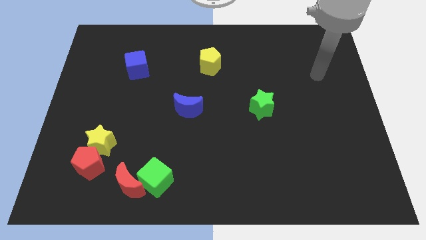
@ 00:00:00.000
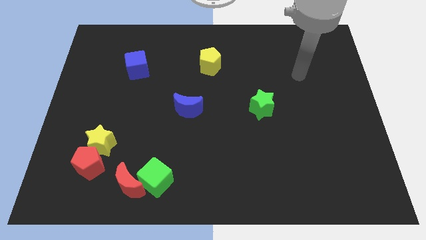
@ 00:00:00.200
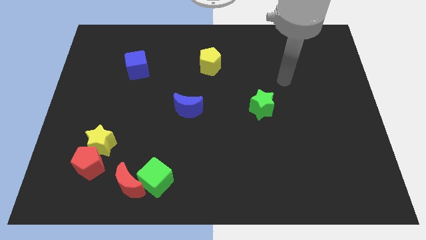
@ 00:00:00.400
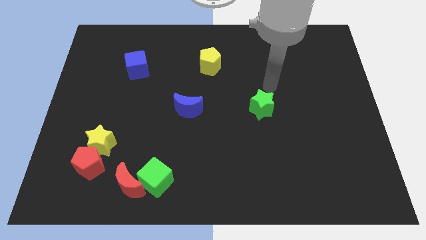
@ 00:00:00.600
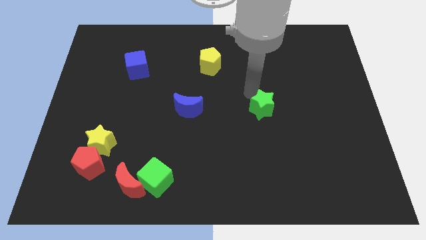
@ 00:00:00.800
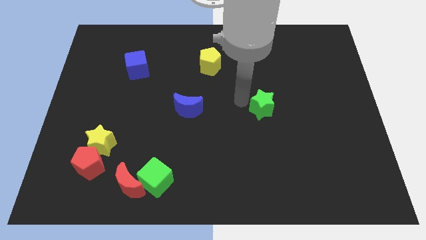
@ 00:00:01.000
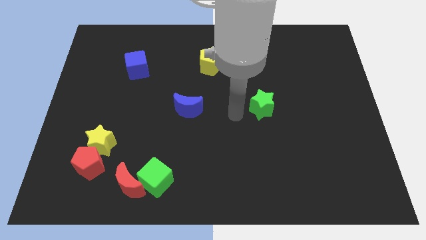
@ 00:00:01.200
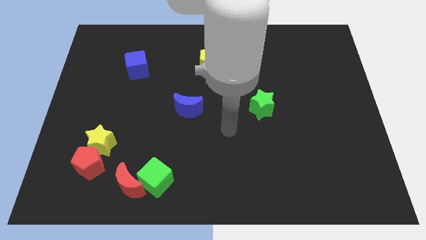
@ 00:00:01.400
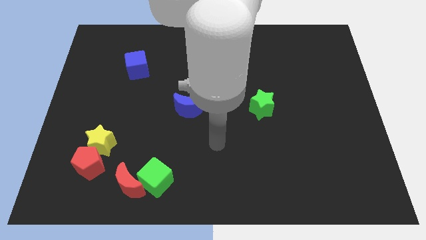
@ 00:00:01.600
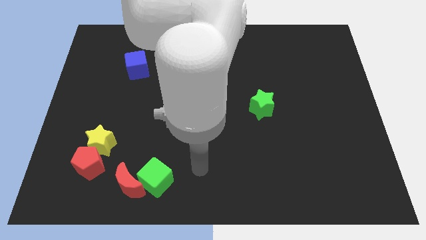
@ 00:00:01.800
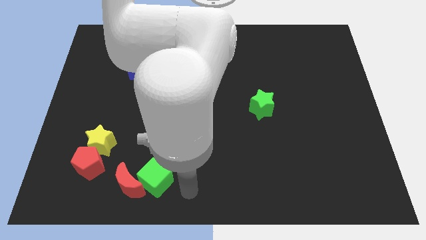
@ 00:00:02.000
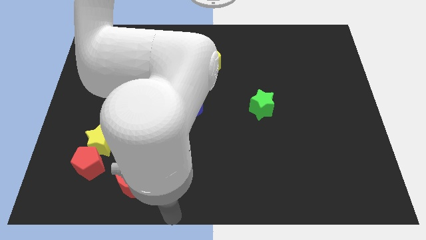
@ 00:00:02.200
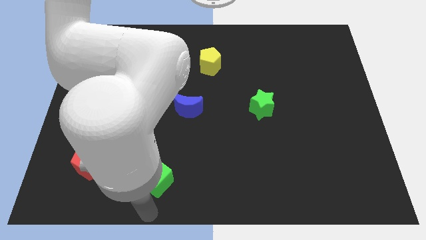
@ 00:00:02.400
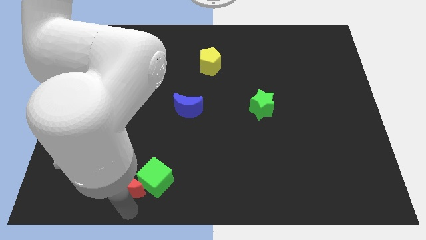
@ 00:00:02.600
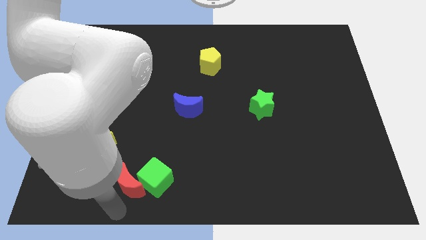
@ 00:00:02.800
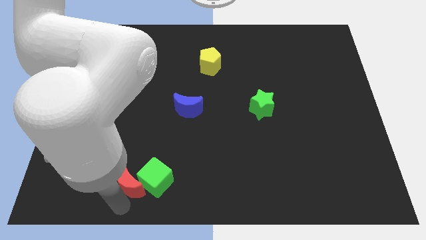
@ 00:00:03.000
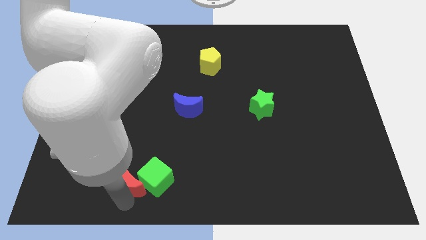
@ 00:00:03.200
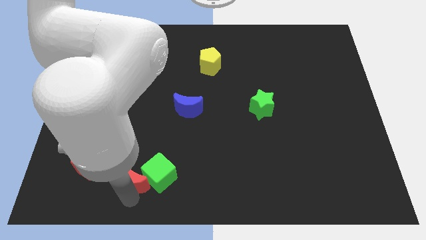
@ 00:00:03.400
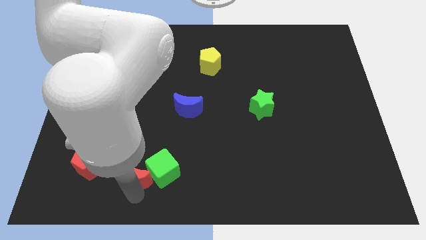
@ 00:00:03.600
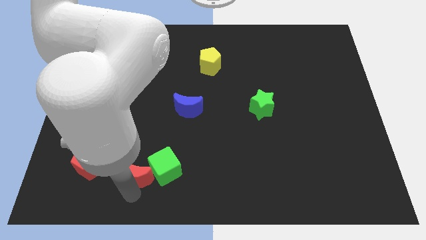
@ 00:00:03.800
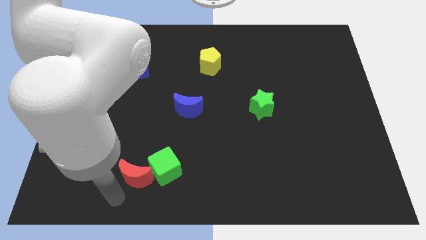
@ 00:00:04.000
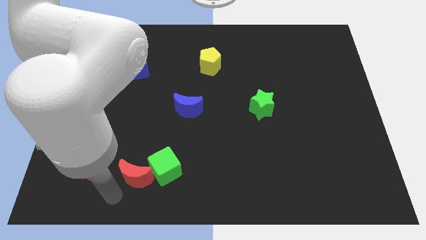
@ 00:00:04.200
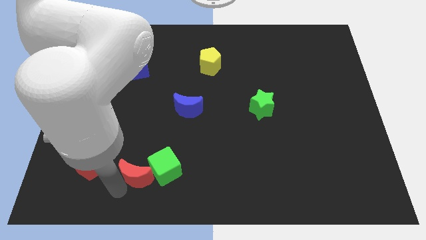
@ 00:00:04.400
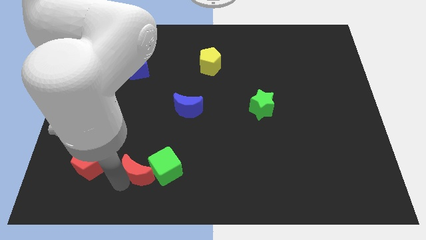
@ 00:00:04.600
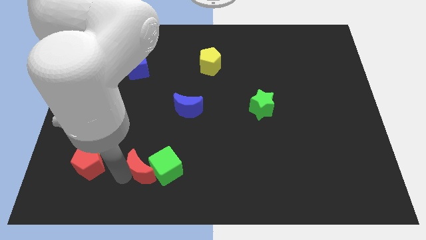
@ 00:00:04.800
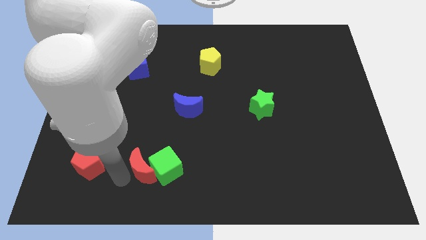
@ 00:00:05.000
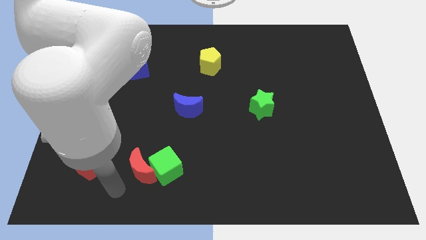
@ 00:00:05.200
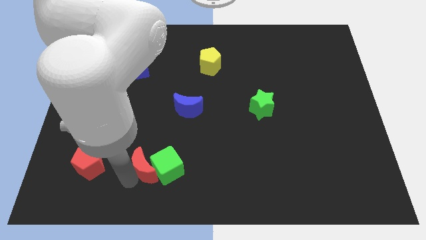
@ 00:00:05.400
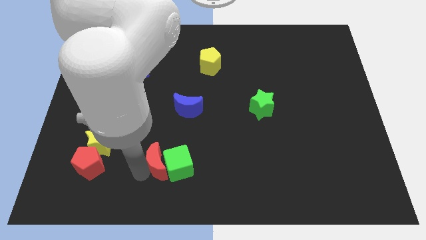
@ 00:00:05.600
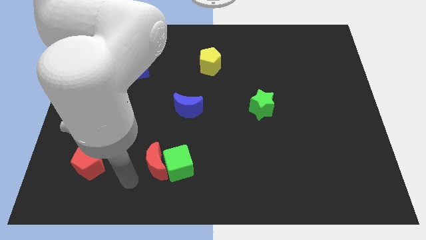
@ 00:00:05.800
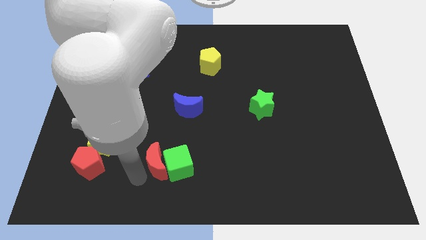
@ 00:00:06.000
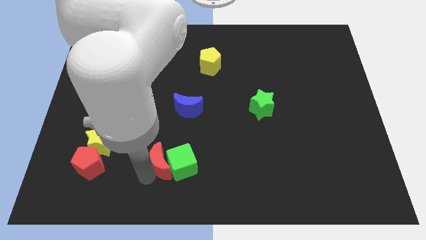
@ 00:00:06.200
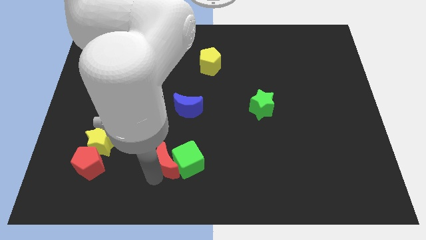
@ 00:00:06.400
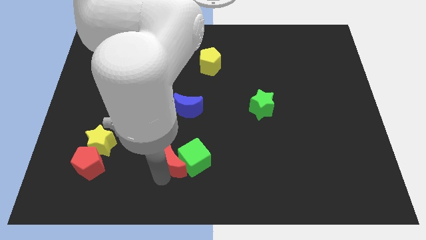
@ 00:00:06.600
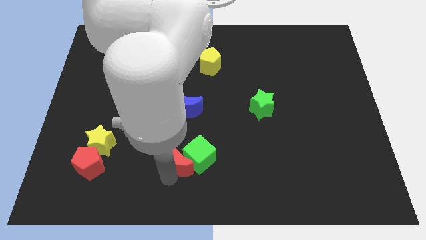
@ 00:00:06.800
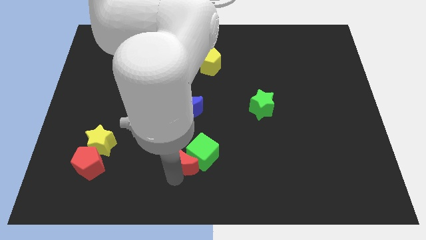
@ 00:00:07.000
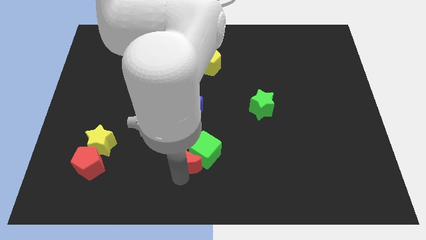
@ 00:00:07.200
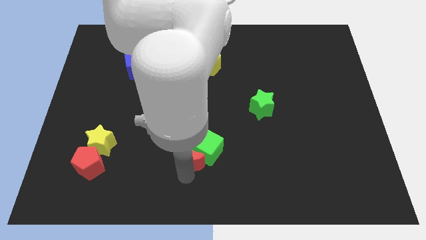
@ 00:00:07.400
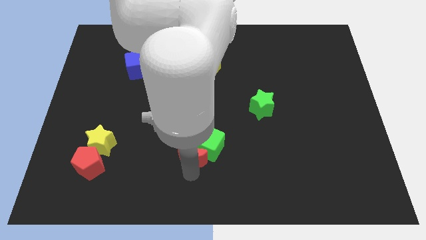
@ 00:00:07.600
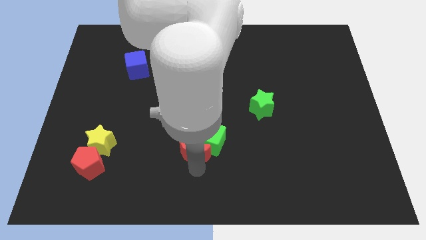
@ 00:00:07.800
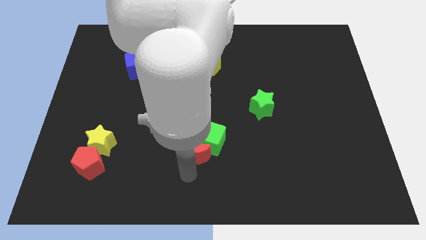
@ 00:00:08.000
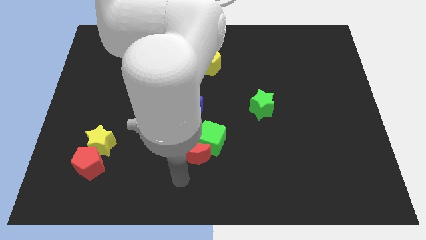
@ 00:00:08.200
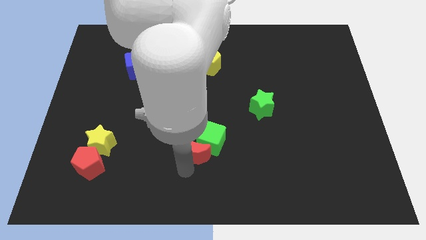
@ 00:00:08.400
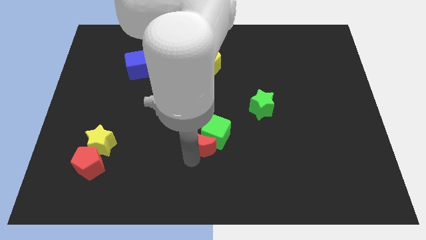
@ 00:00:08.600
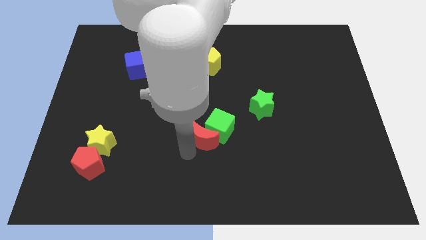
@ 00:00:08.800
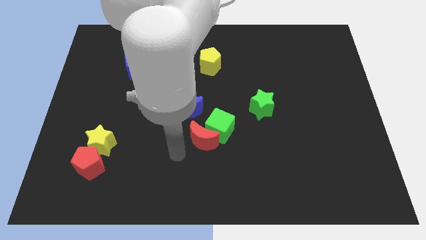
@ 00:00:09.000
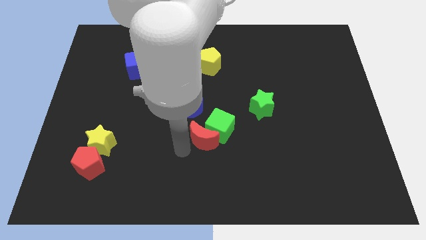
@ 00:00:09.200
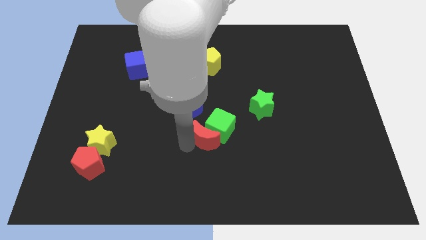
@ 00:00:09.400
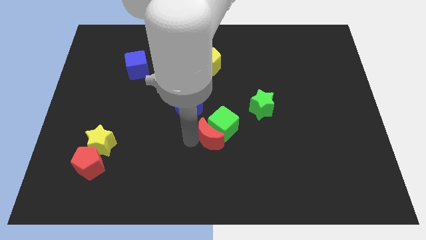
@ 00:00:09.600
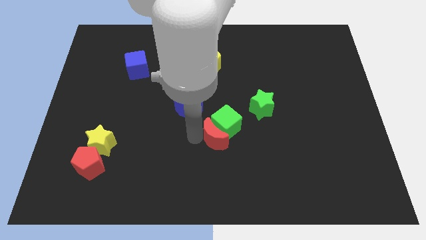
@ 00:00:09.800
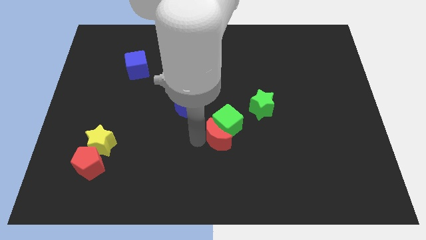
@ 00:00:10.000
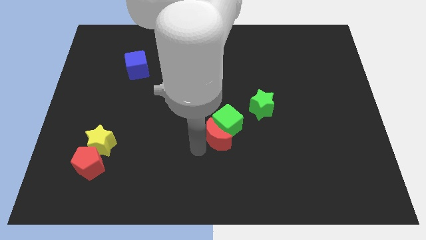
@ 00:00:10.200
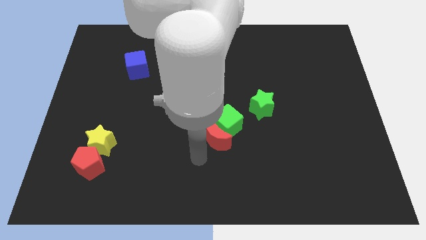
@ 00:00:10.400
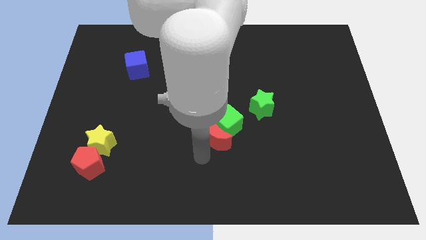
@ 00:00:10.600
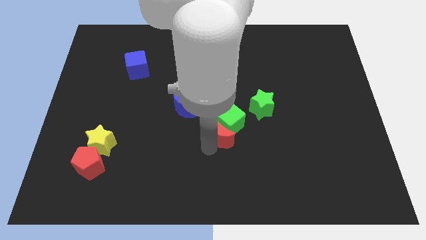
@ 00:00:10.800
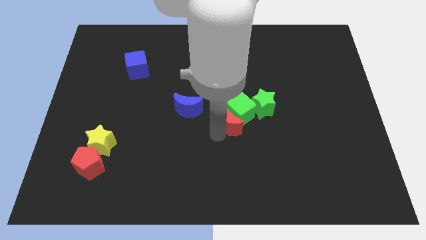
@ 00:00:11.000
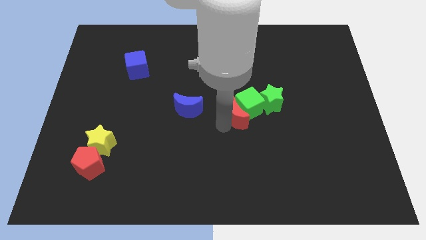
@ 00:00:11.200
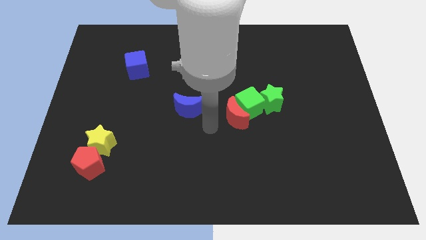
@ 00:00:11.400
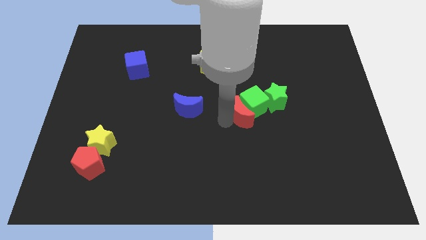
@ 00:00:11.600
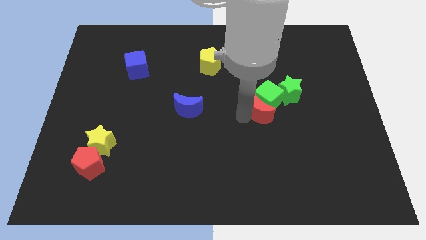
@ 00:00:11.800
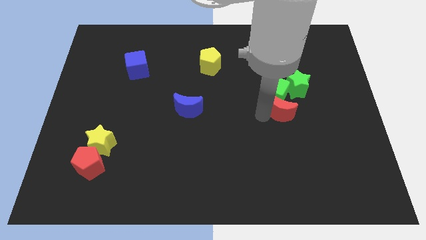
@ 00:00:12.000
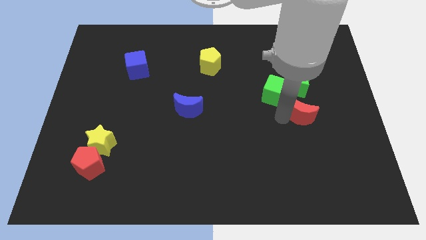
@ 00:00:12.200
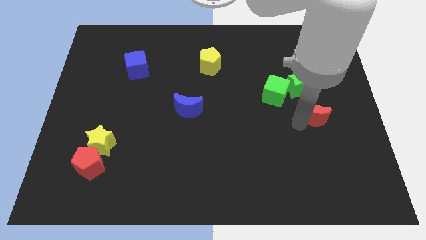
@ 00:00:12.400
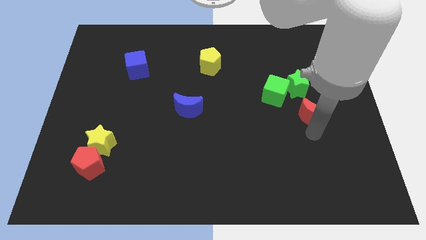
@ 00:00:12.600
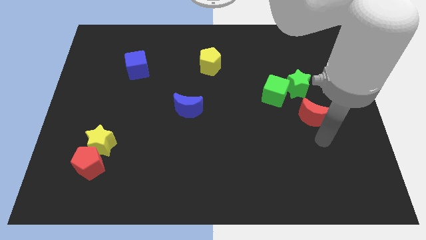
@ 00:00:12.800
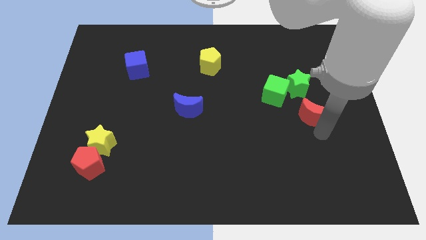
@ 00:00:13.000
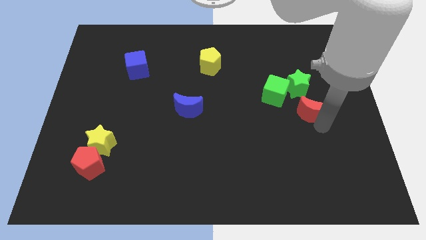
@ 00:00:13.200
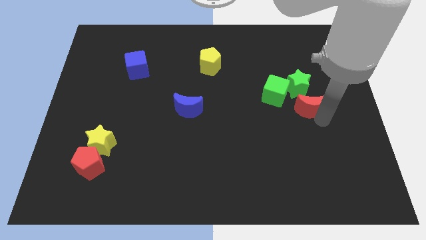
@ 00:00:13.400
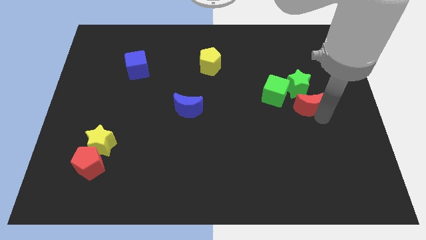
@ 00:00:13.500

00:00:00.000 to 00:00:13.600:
move the red moon next to the green star

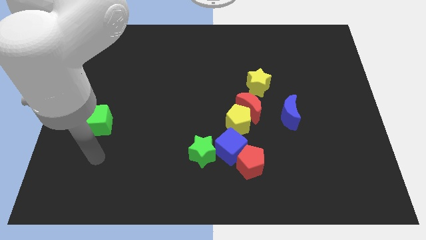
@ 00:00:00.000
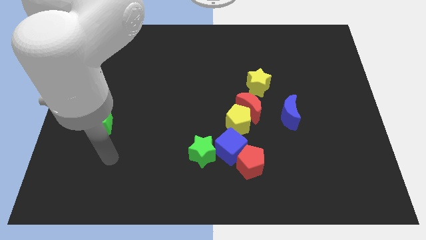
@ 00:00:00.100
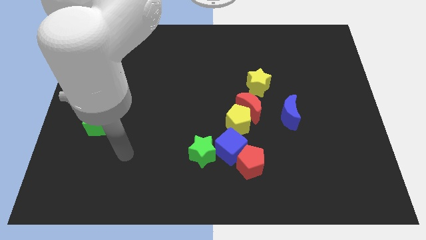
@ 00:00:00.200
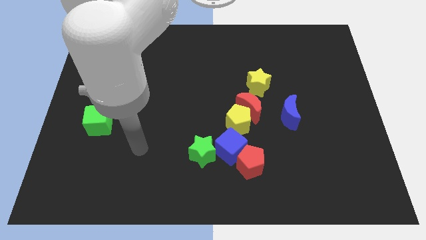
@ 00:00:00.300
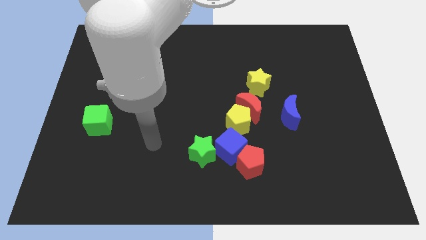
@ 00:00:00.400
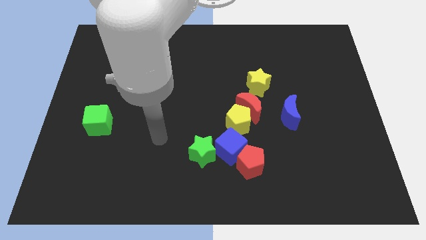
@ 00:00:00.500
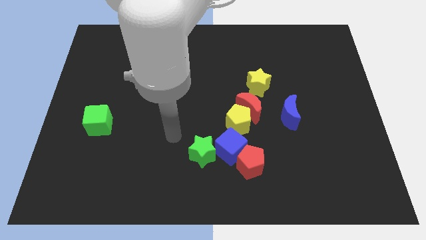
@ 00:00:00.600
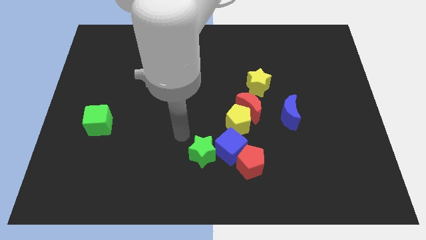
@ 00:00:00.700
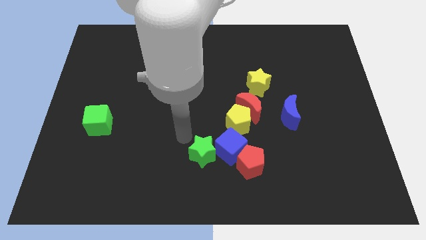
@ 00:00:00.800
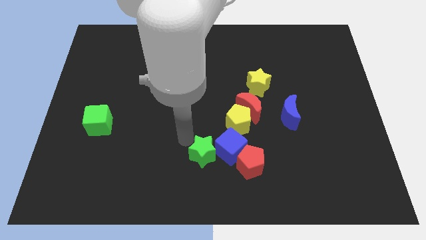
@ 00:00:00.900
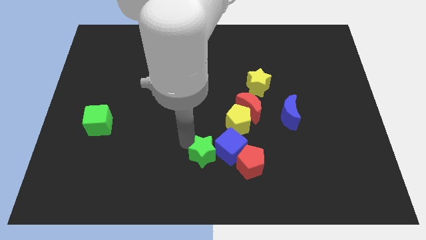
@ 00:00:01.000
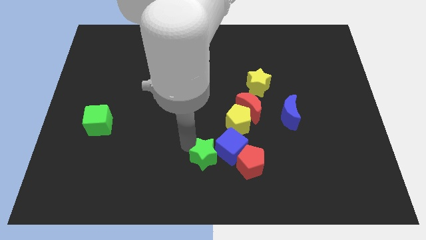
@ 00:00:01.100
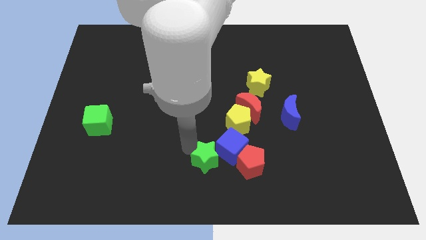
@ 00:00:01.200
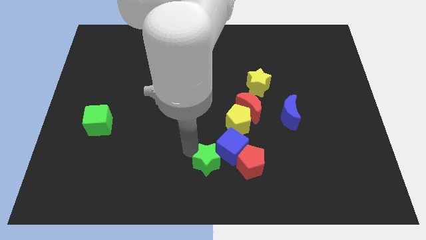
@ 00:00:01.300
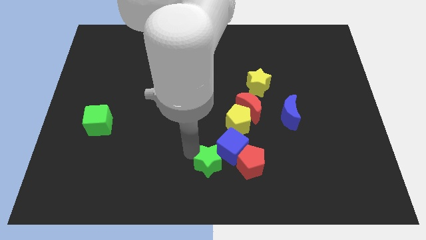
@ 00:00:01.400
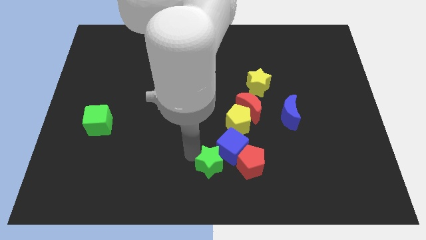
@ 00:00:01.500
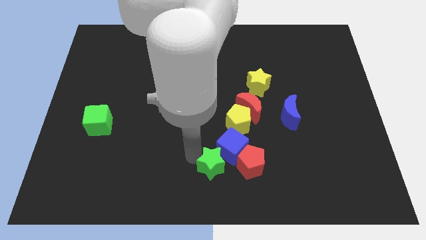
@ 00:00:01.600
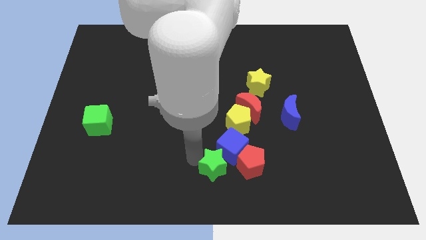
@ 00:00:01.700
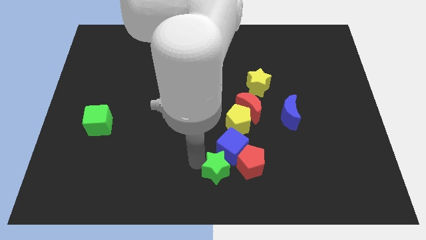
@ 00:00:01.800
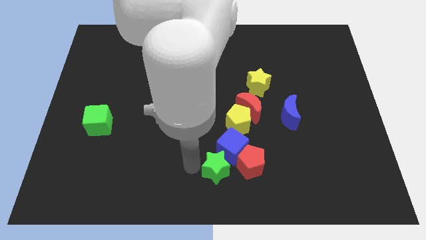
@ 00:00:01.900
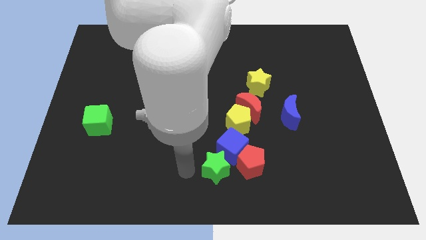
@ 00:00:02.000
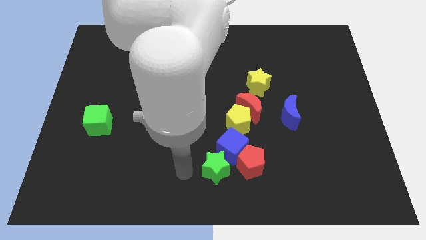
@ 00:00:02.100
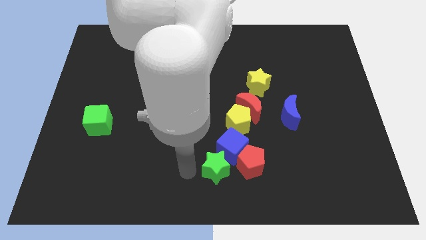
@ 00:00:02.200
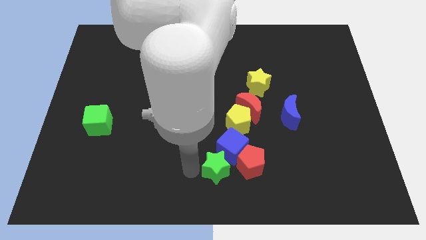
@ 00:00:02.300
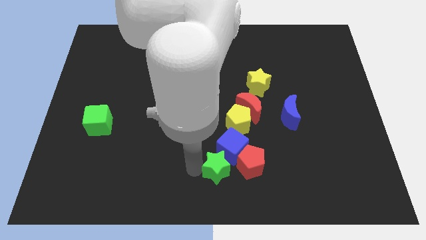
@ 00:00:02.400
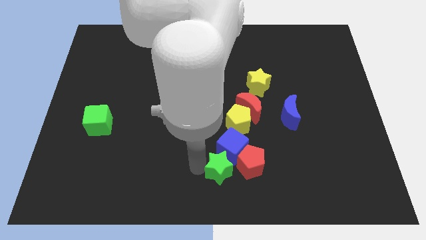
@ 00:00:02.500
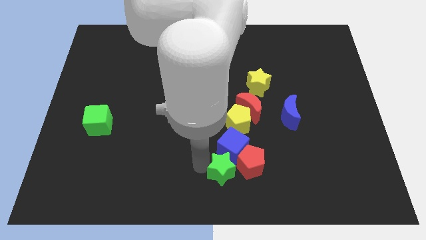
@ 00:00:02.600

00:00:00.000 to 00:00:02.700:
push the green star close to the red pentagon
